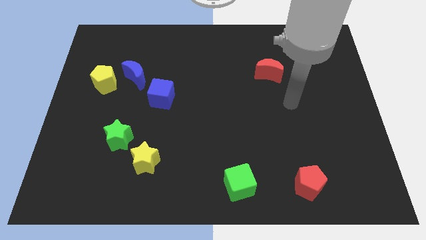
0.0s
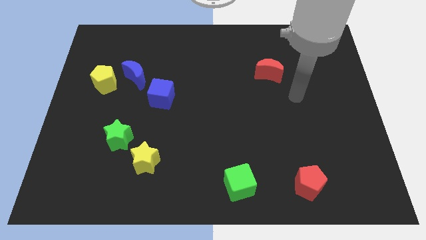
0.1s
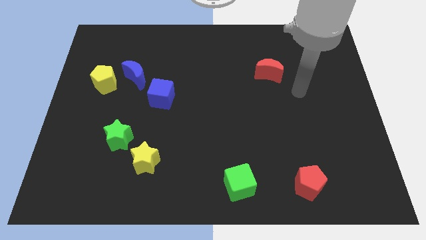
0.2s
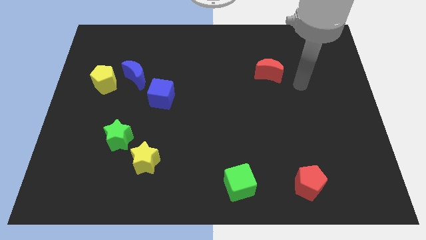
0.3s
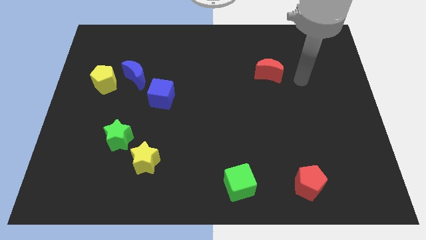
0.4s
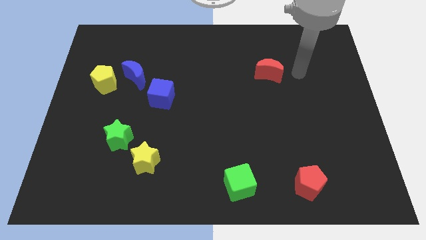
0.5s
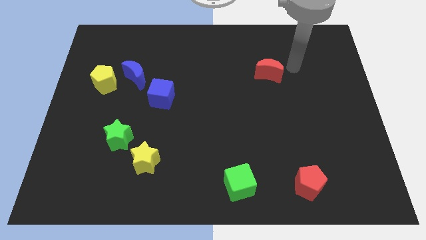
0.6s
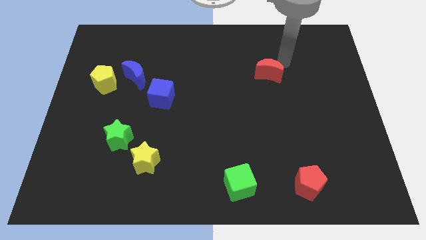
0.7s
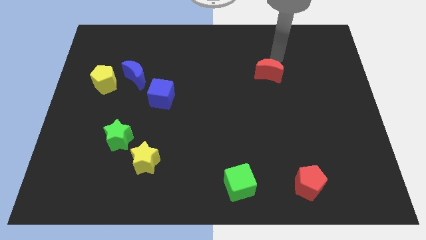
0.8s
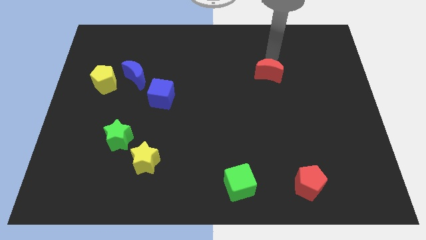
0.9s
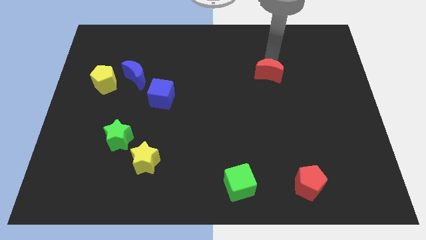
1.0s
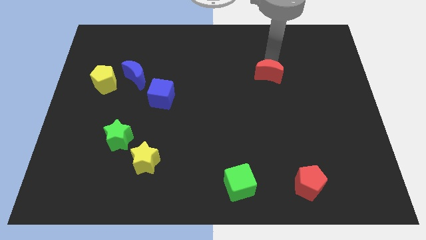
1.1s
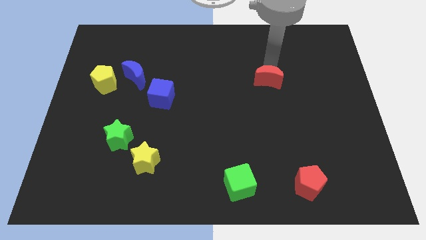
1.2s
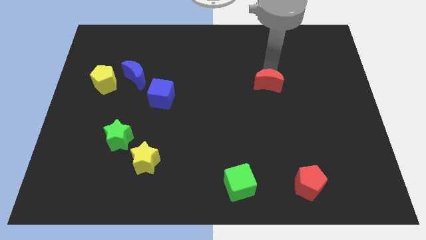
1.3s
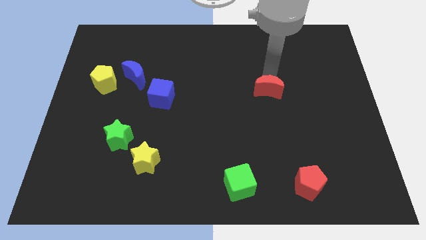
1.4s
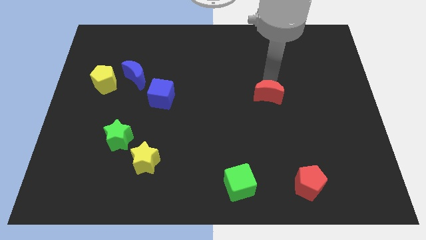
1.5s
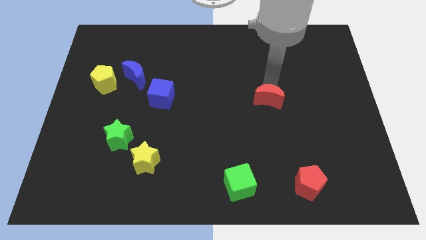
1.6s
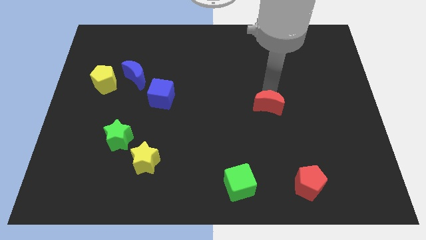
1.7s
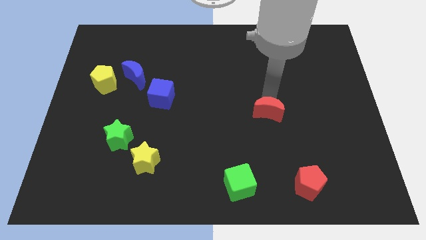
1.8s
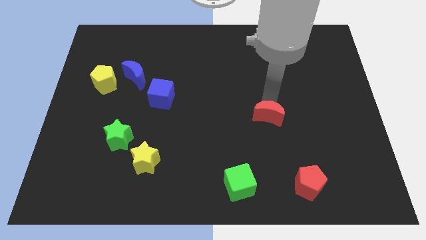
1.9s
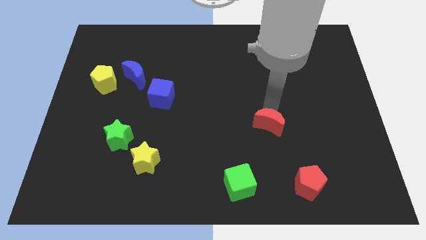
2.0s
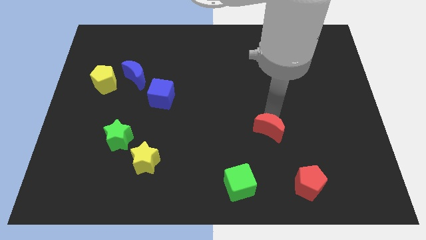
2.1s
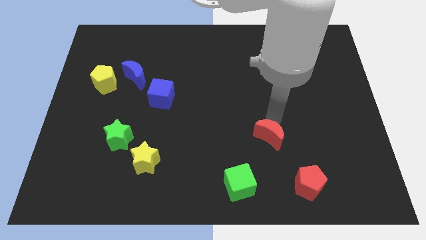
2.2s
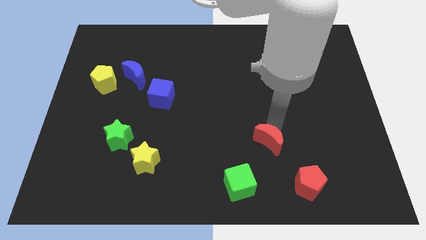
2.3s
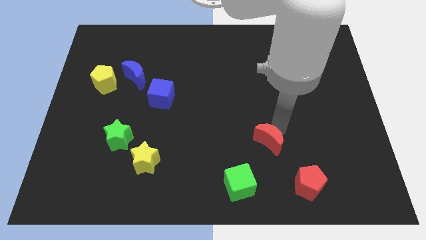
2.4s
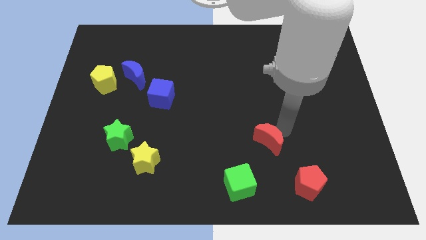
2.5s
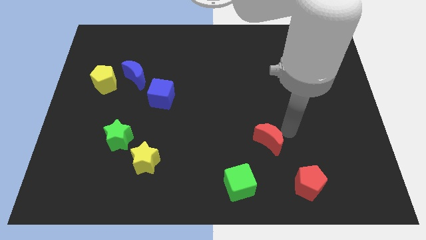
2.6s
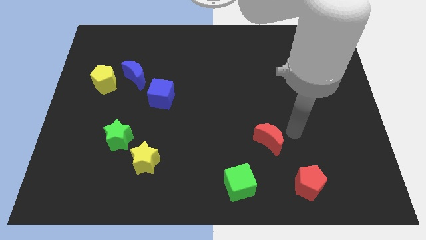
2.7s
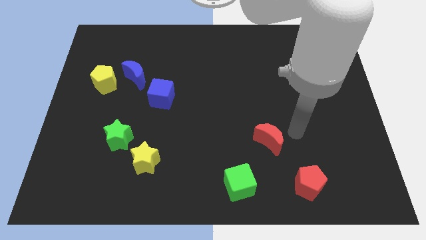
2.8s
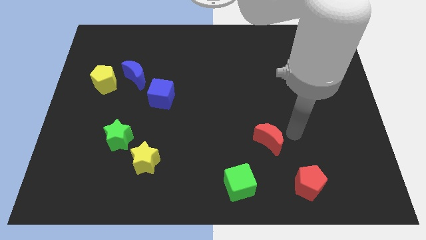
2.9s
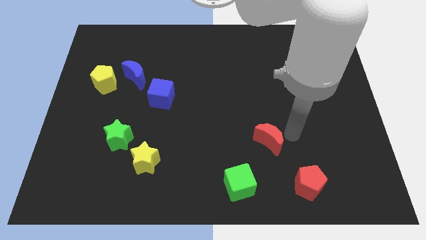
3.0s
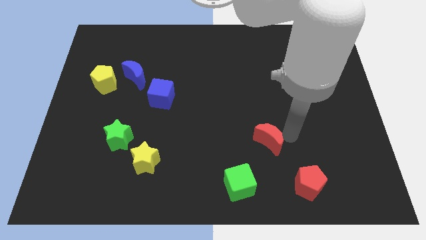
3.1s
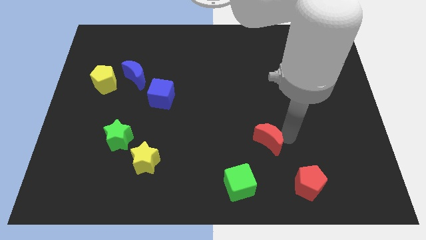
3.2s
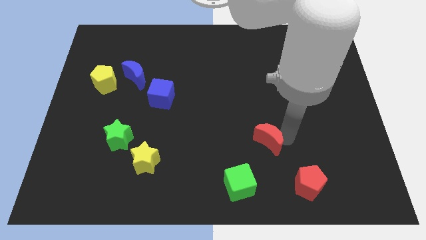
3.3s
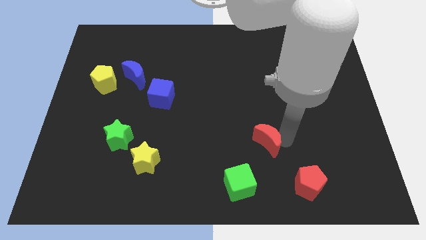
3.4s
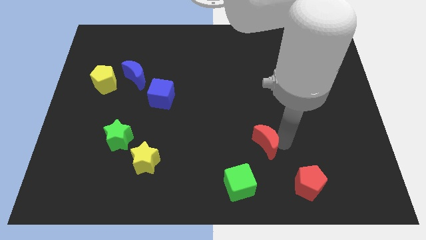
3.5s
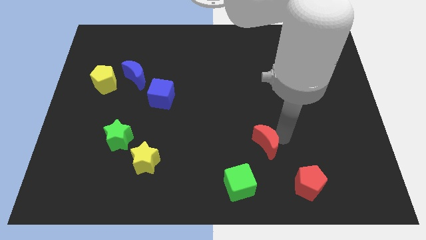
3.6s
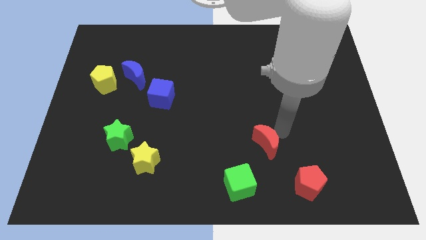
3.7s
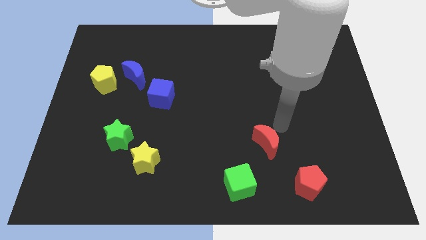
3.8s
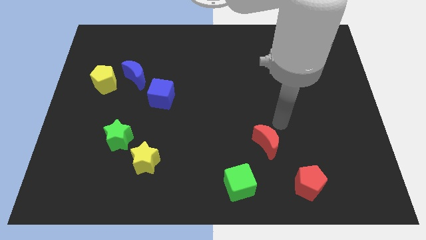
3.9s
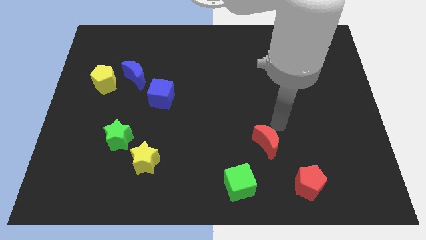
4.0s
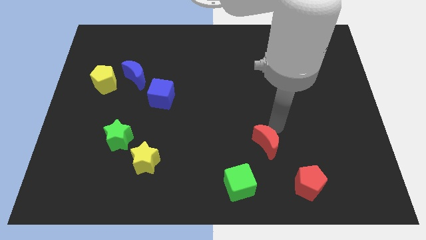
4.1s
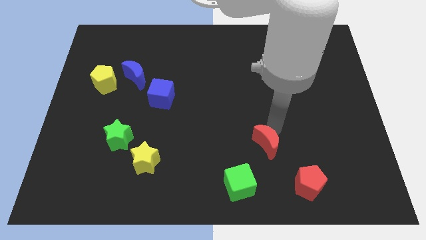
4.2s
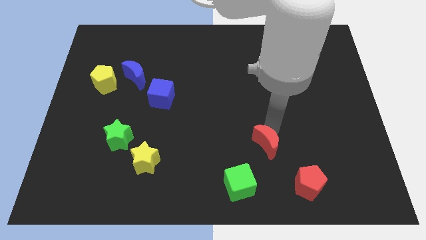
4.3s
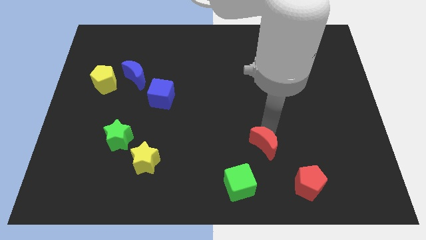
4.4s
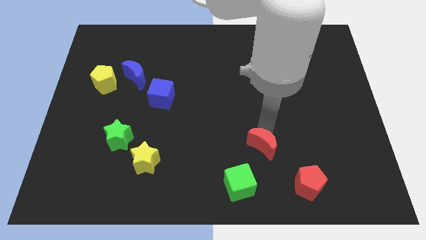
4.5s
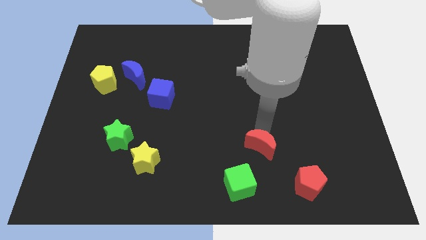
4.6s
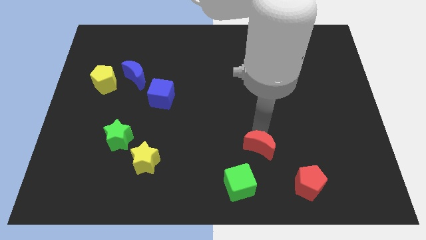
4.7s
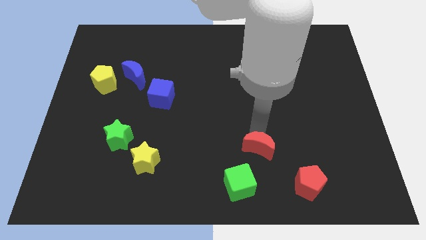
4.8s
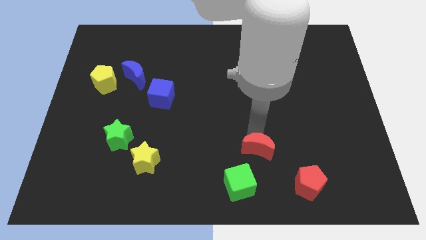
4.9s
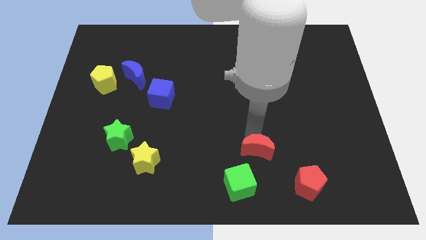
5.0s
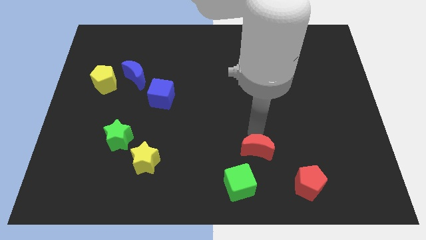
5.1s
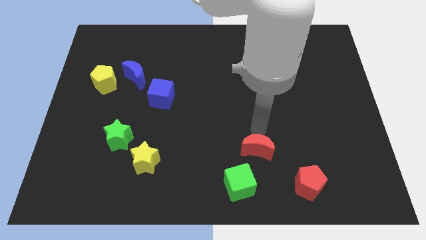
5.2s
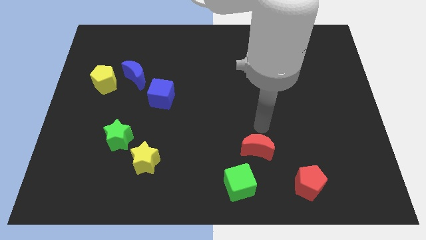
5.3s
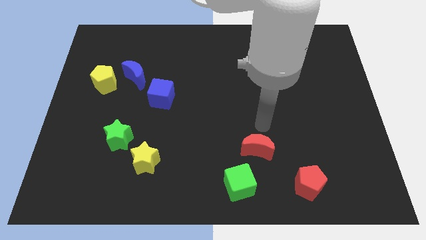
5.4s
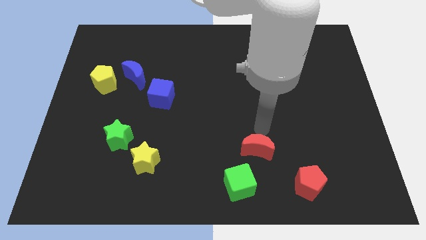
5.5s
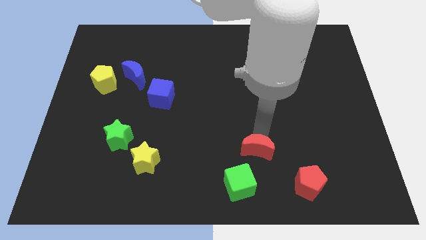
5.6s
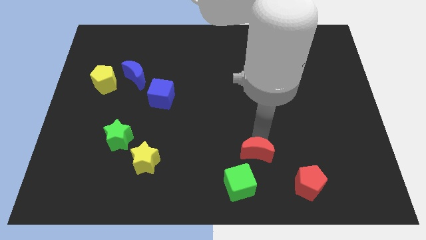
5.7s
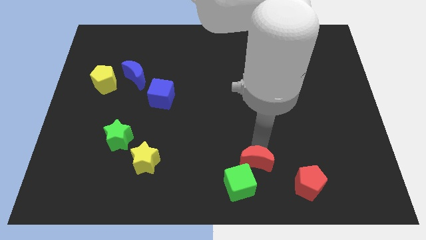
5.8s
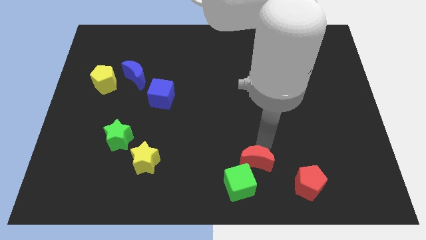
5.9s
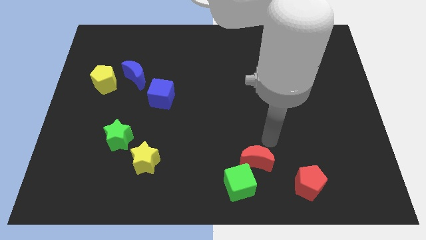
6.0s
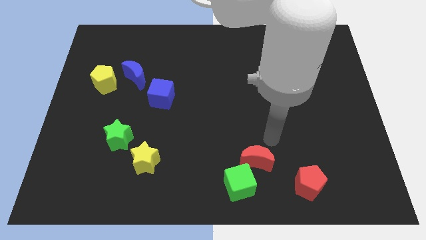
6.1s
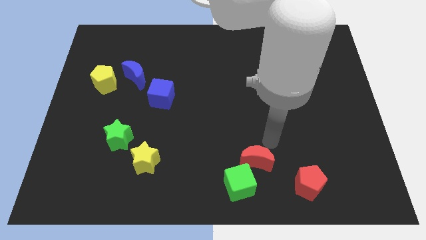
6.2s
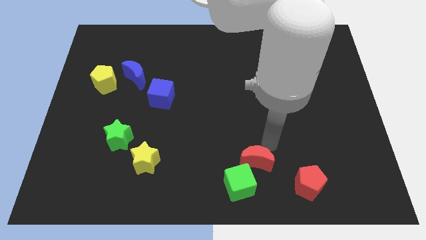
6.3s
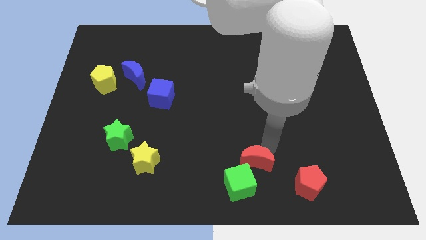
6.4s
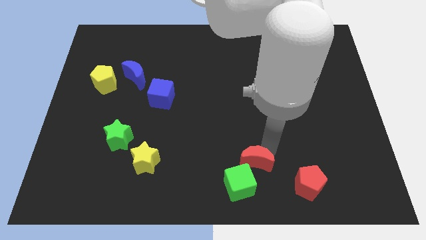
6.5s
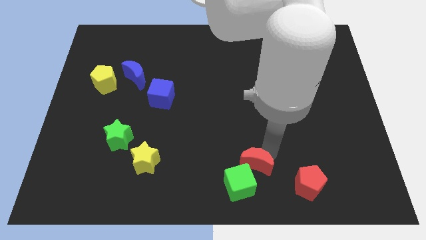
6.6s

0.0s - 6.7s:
put the red moon towards the green cube

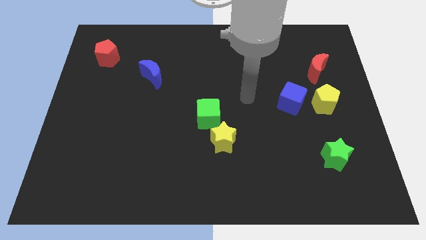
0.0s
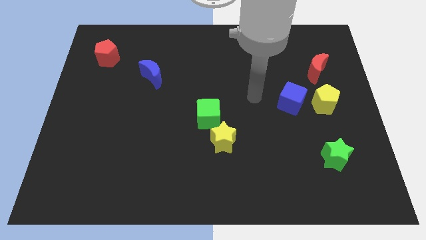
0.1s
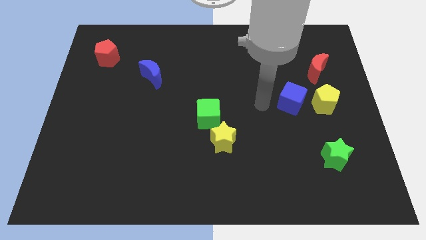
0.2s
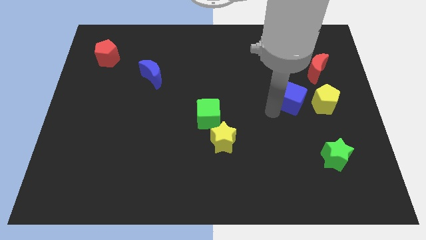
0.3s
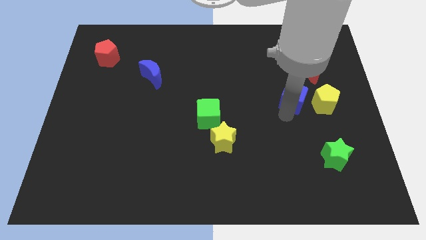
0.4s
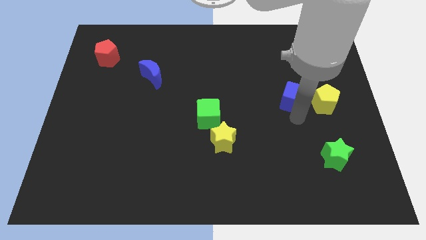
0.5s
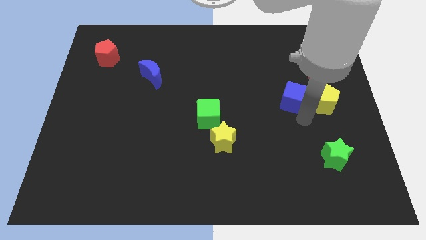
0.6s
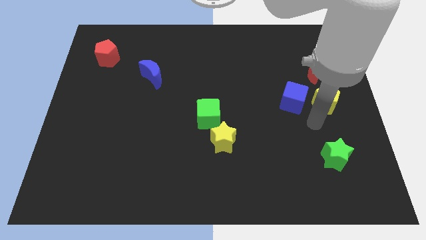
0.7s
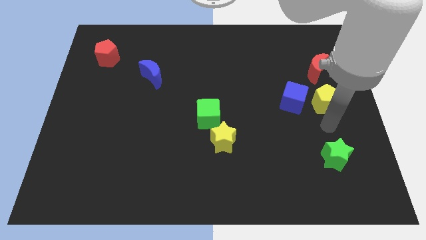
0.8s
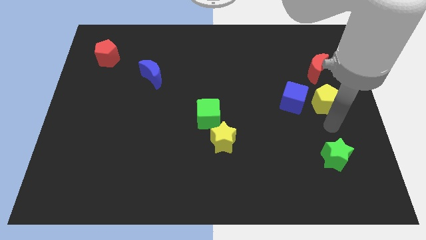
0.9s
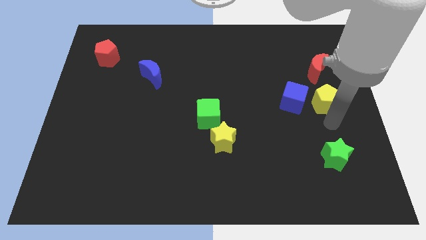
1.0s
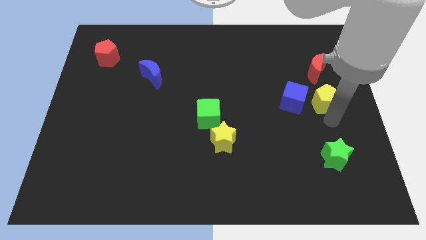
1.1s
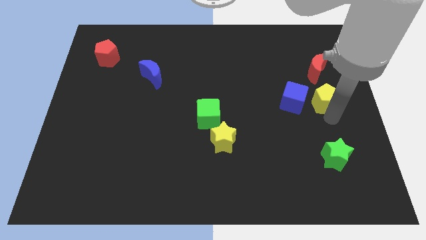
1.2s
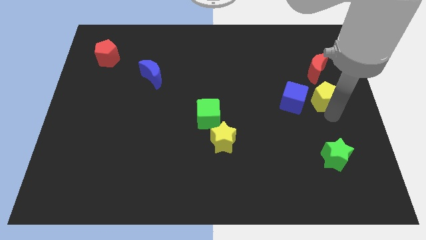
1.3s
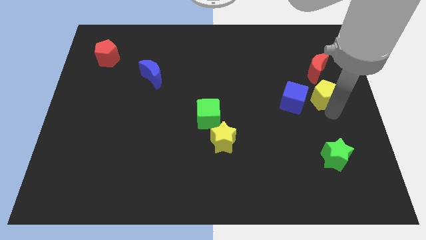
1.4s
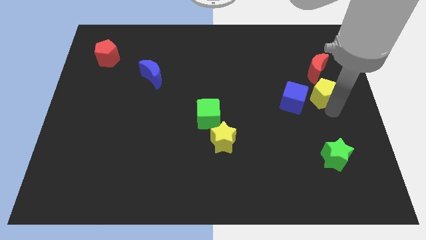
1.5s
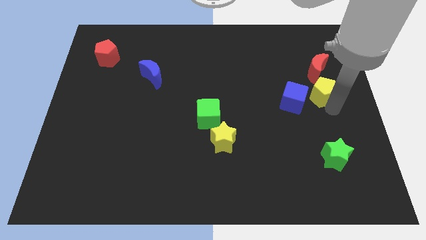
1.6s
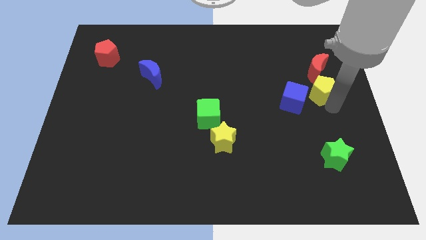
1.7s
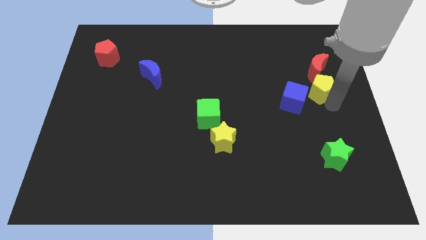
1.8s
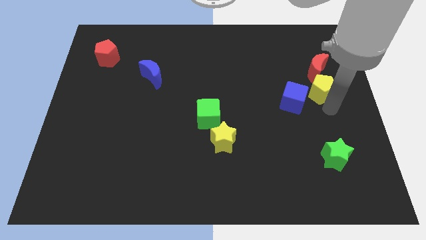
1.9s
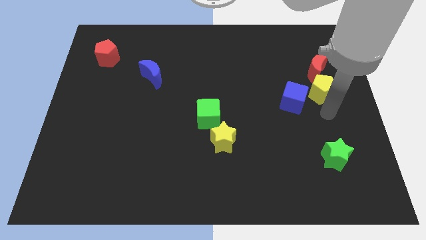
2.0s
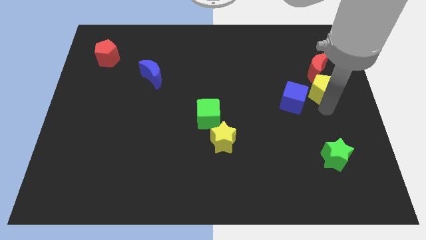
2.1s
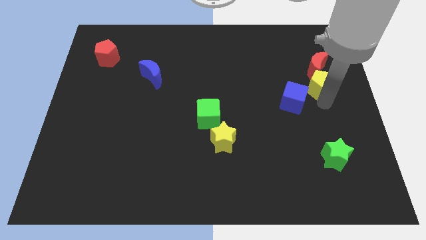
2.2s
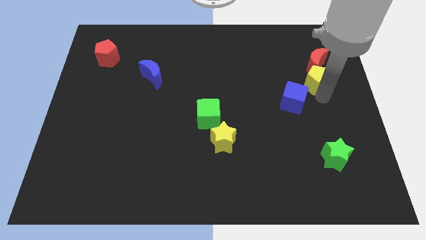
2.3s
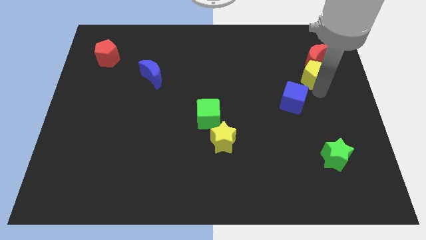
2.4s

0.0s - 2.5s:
put the yellow pentagon to the red moon
